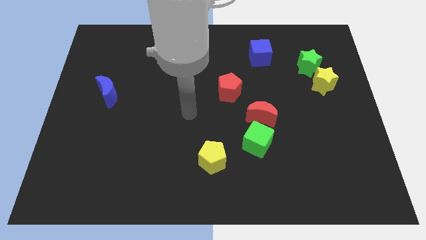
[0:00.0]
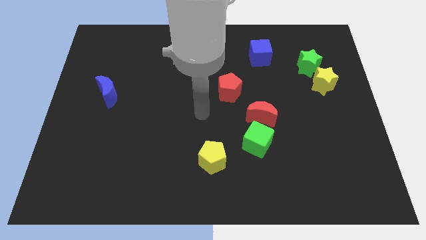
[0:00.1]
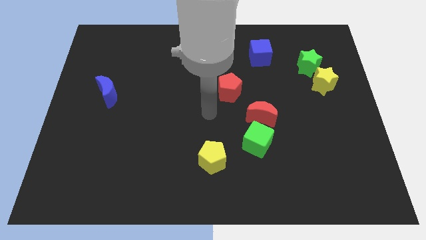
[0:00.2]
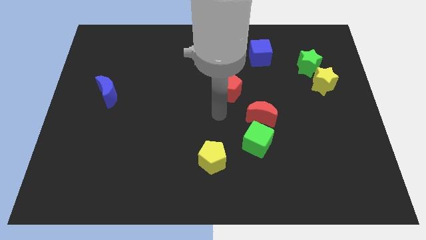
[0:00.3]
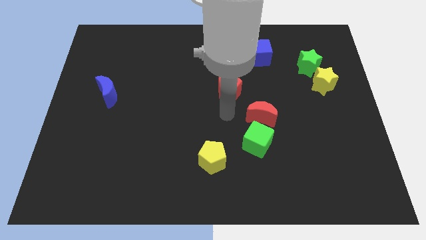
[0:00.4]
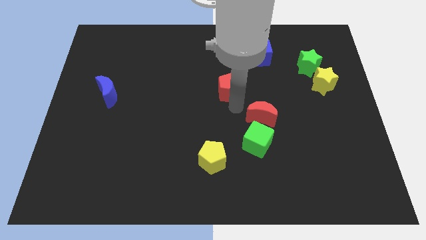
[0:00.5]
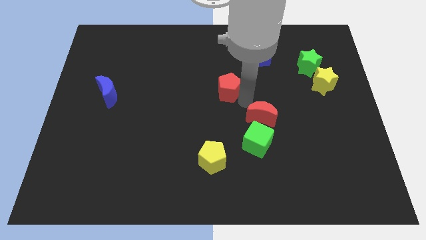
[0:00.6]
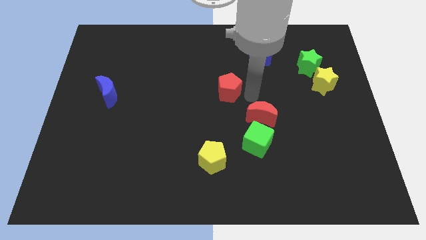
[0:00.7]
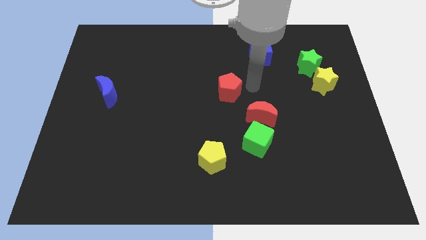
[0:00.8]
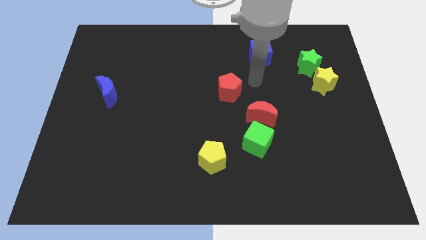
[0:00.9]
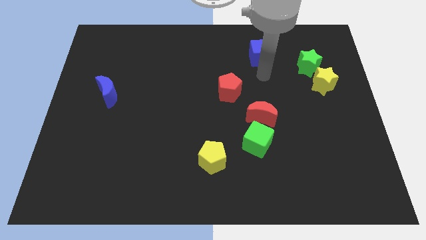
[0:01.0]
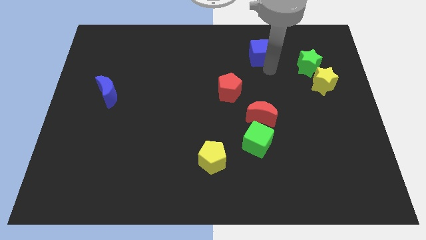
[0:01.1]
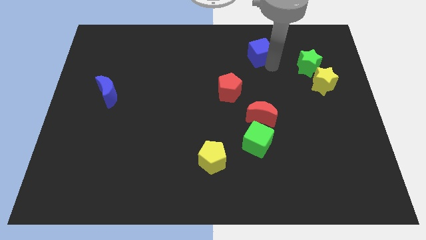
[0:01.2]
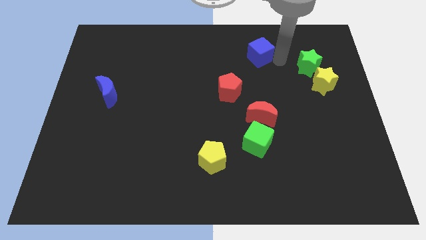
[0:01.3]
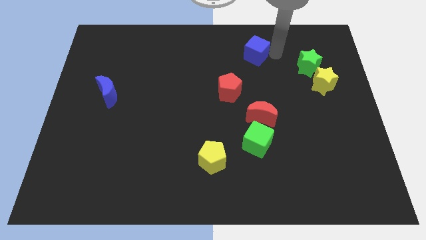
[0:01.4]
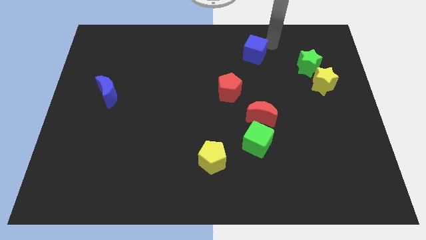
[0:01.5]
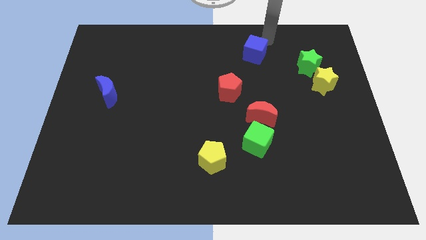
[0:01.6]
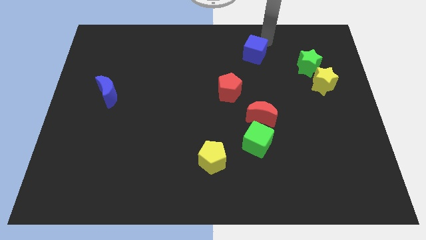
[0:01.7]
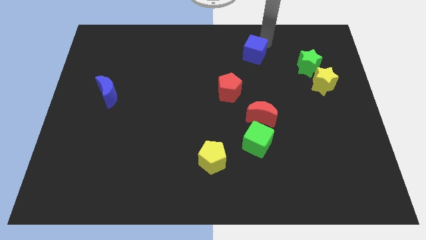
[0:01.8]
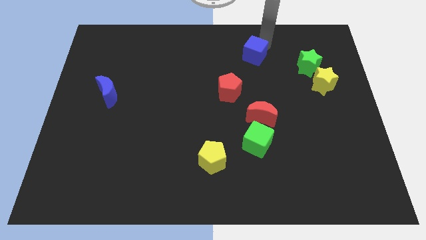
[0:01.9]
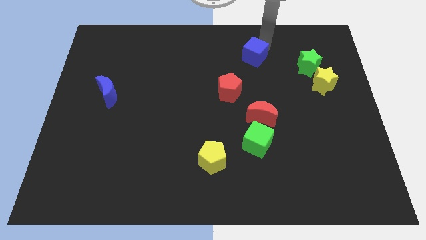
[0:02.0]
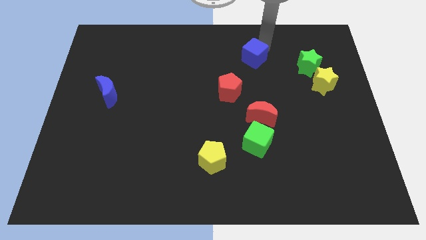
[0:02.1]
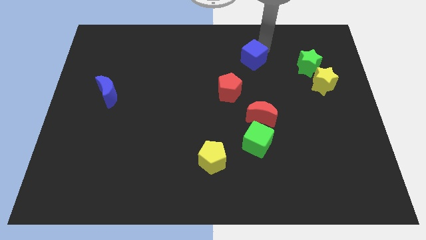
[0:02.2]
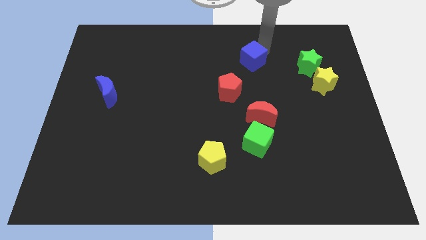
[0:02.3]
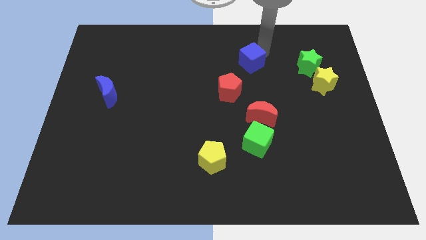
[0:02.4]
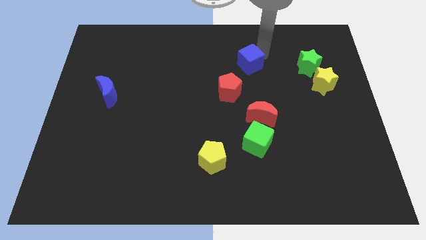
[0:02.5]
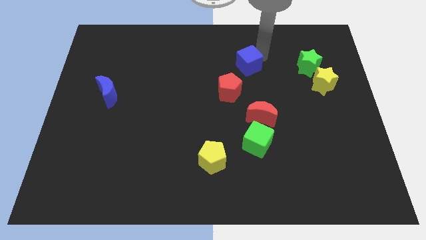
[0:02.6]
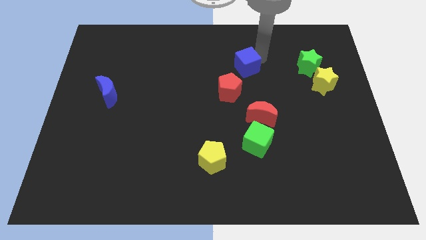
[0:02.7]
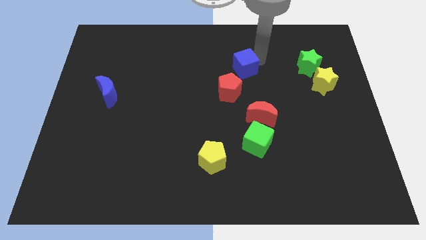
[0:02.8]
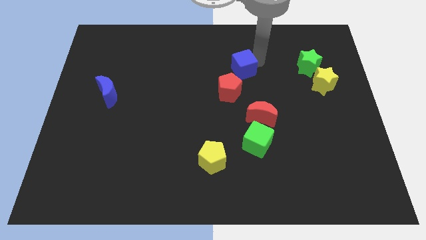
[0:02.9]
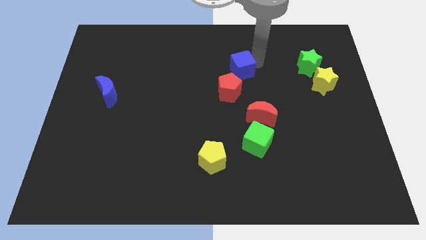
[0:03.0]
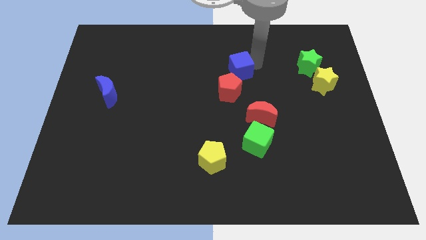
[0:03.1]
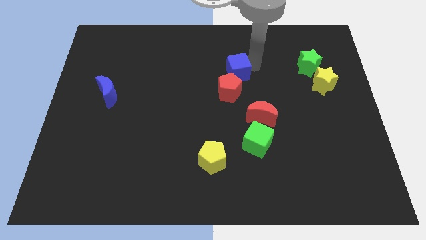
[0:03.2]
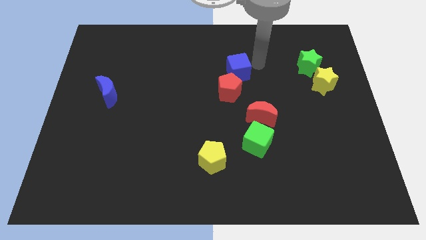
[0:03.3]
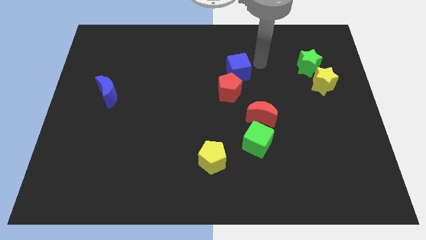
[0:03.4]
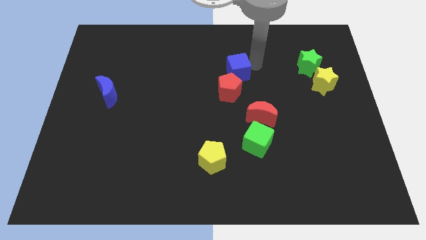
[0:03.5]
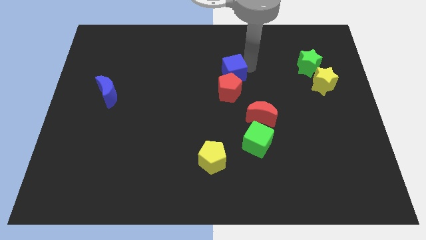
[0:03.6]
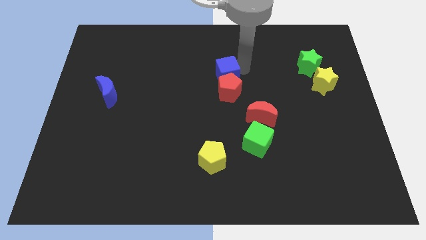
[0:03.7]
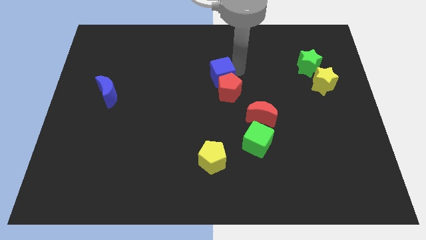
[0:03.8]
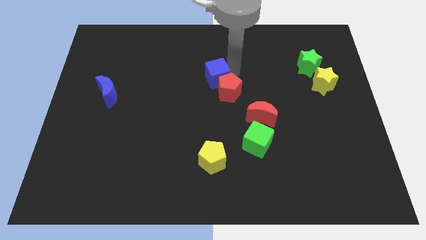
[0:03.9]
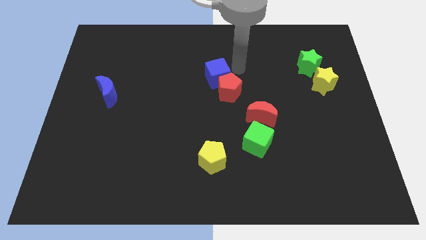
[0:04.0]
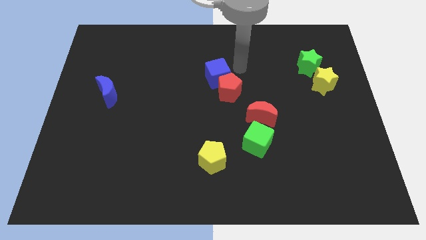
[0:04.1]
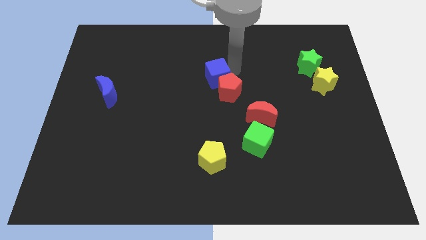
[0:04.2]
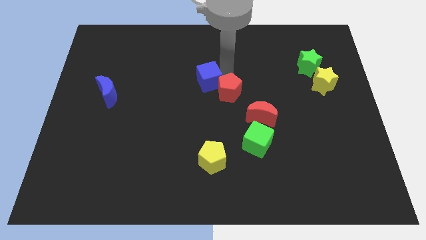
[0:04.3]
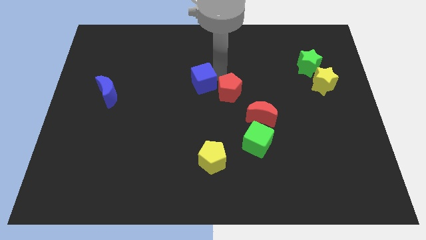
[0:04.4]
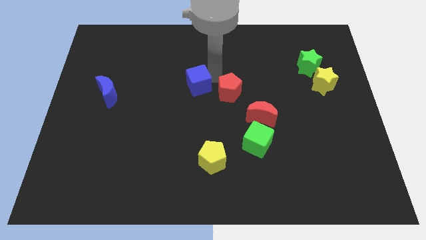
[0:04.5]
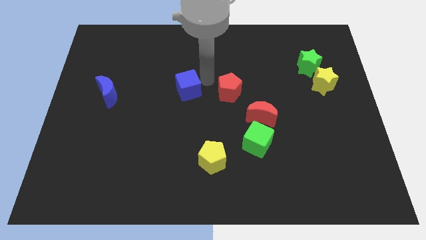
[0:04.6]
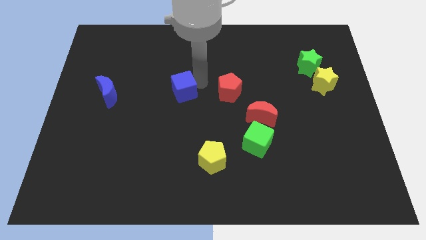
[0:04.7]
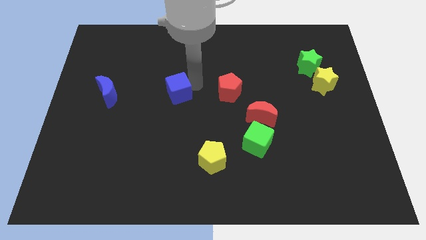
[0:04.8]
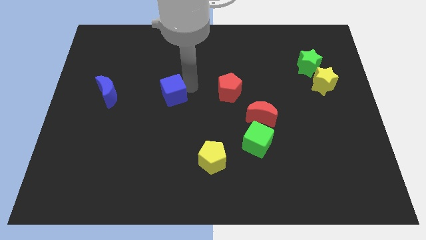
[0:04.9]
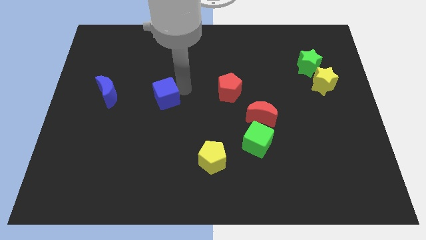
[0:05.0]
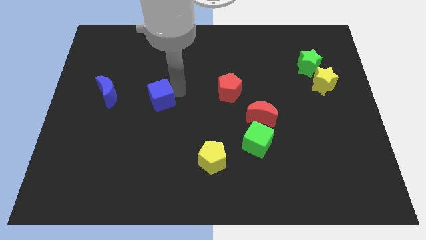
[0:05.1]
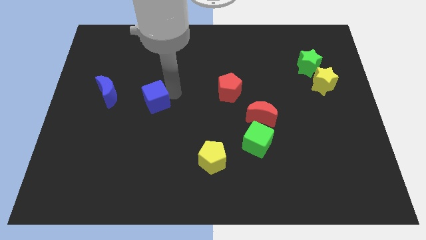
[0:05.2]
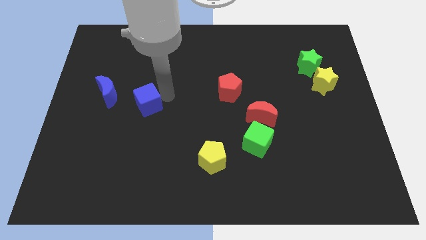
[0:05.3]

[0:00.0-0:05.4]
slide the blue cube diagonally down and to the right of the blue moon

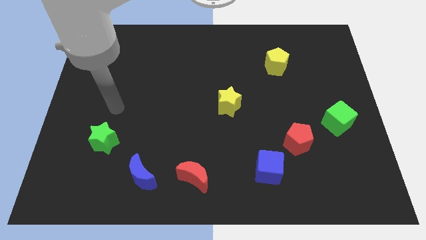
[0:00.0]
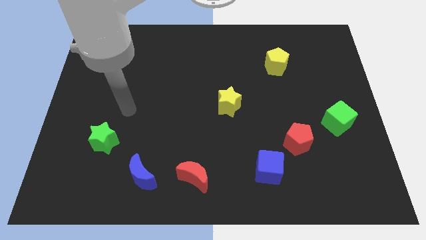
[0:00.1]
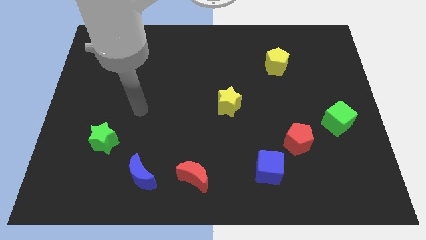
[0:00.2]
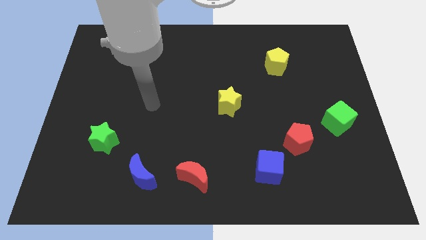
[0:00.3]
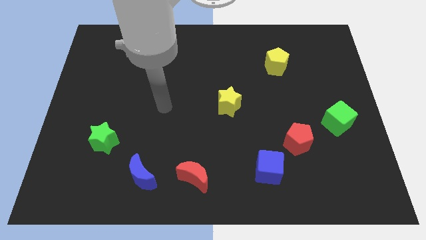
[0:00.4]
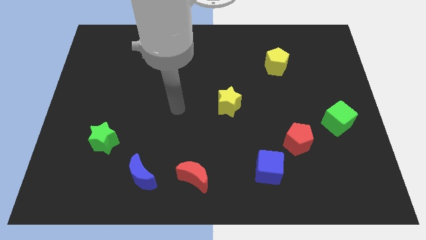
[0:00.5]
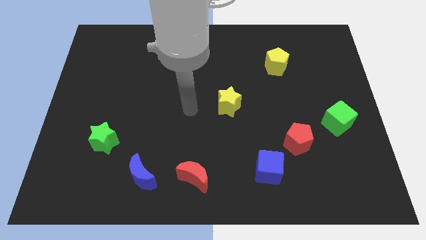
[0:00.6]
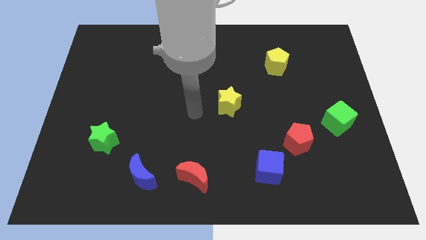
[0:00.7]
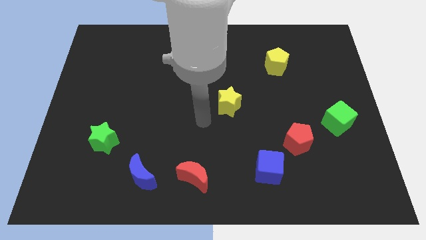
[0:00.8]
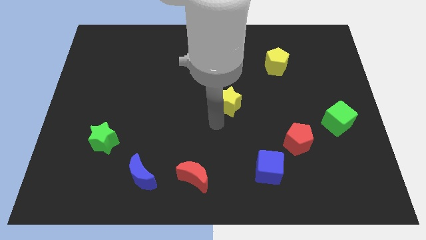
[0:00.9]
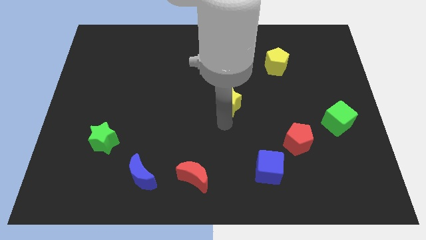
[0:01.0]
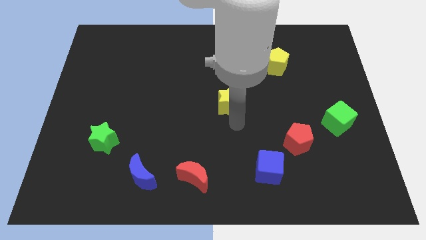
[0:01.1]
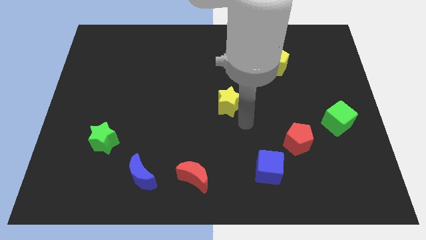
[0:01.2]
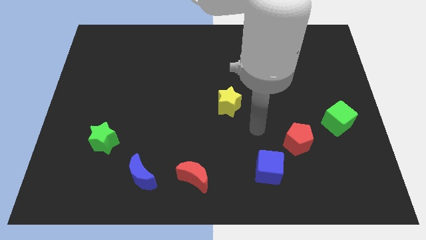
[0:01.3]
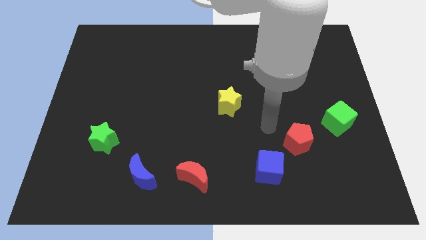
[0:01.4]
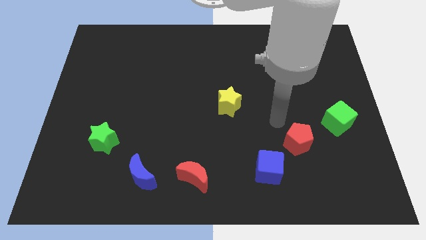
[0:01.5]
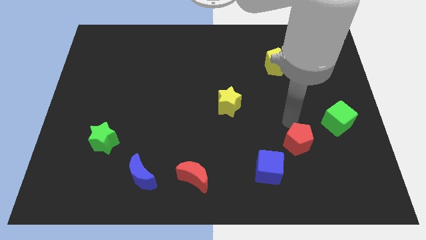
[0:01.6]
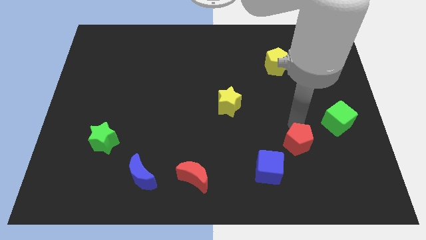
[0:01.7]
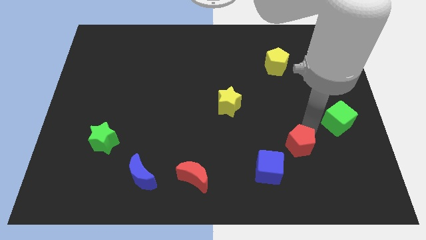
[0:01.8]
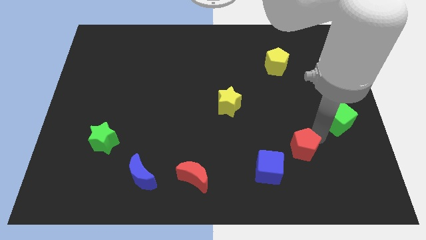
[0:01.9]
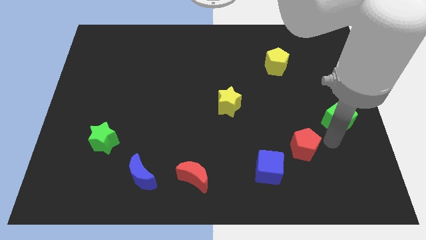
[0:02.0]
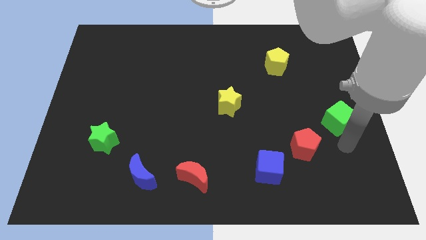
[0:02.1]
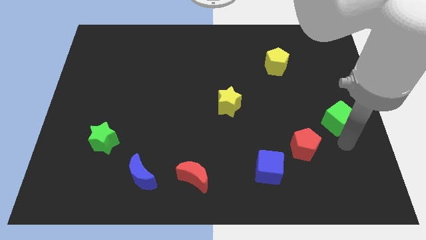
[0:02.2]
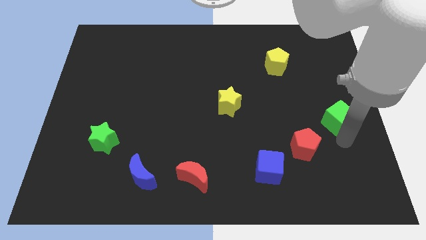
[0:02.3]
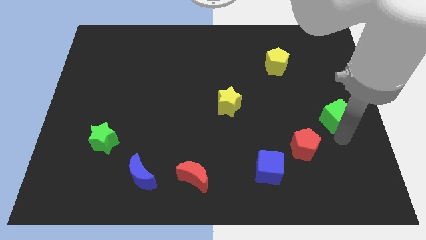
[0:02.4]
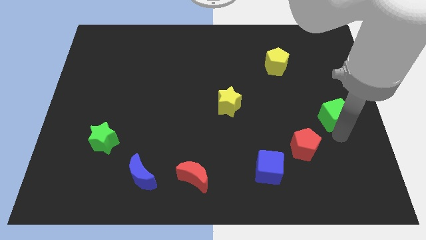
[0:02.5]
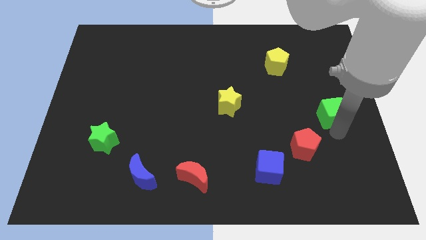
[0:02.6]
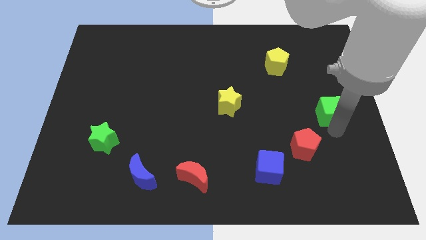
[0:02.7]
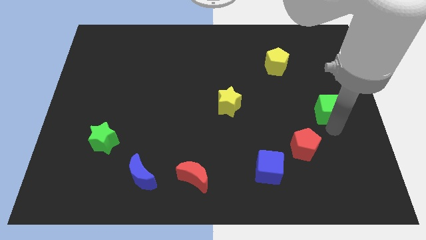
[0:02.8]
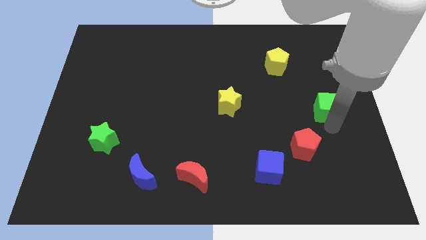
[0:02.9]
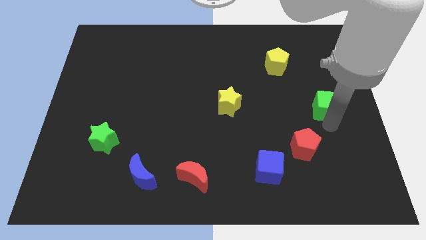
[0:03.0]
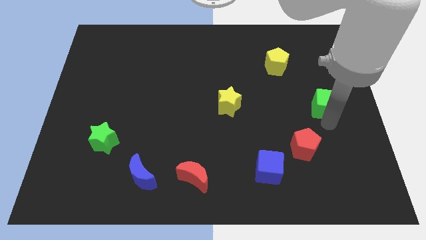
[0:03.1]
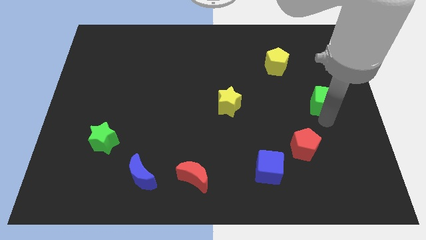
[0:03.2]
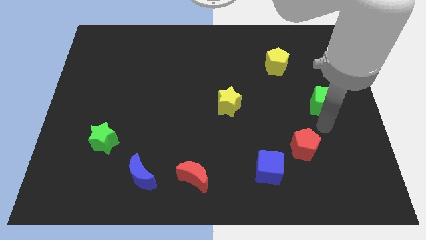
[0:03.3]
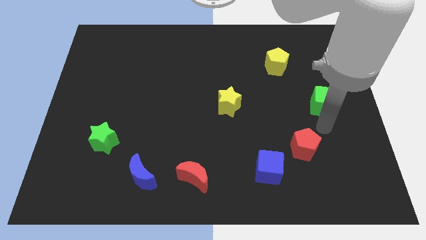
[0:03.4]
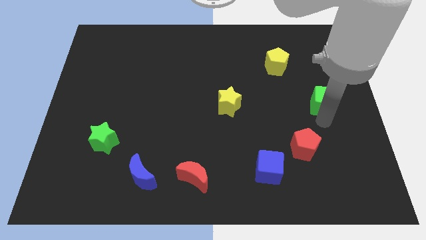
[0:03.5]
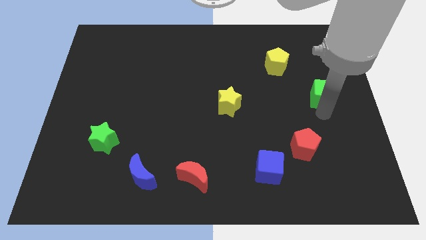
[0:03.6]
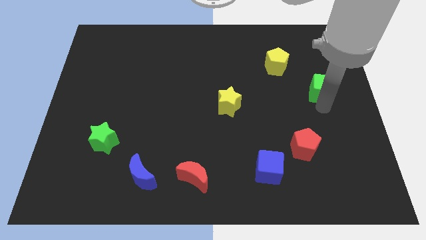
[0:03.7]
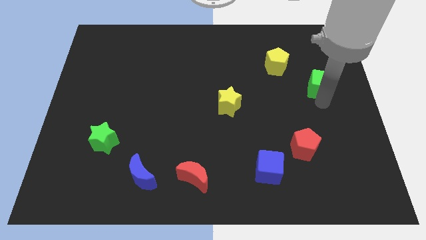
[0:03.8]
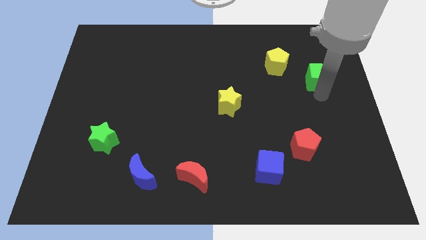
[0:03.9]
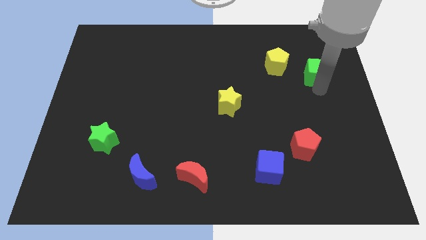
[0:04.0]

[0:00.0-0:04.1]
move the green cube to the right of the yellow pentagon
